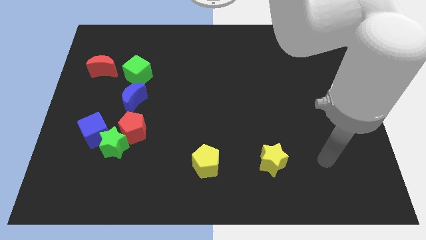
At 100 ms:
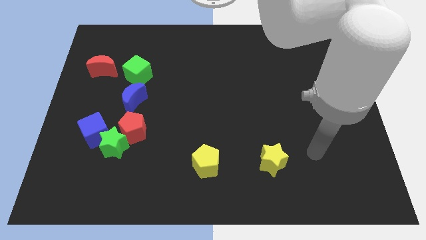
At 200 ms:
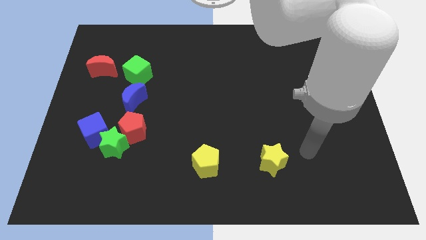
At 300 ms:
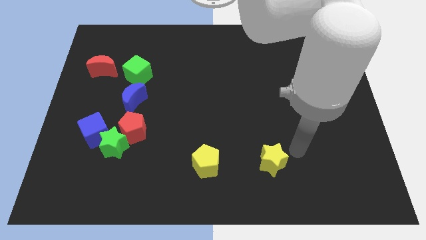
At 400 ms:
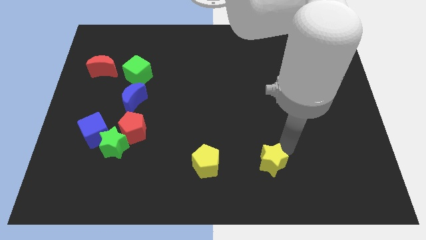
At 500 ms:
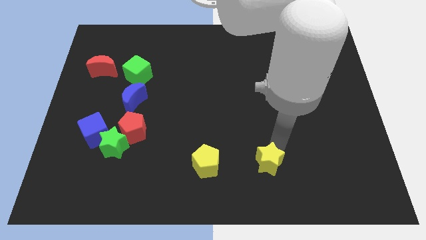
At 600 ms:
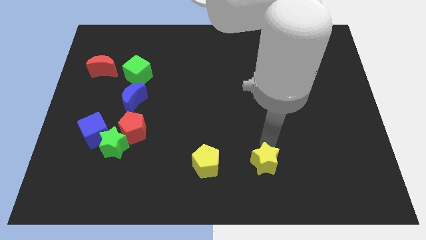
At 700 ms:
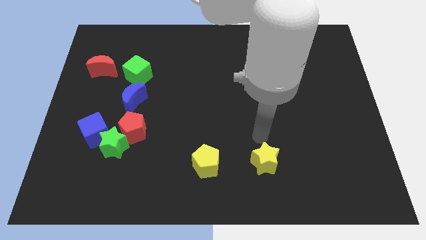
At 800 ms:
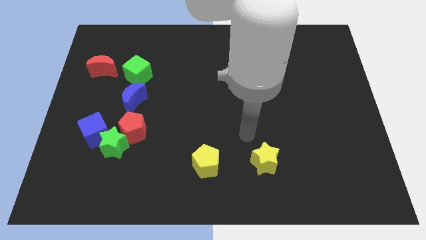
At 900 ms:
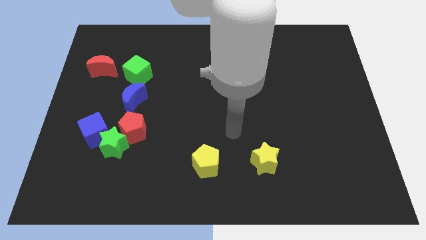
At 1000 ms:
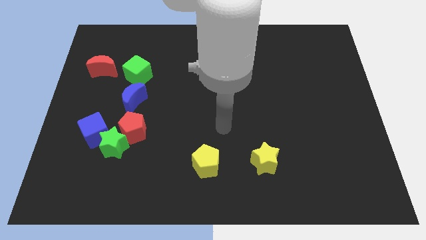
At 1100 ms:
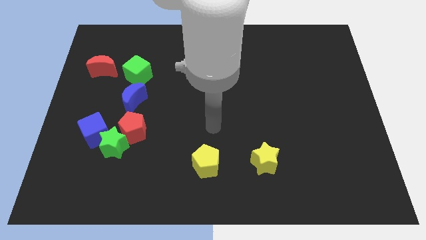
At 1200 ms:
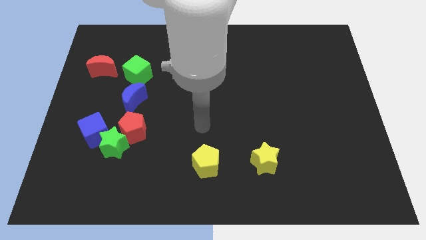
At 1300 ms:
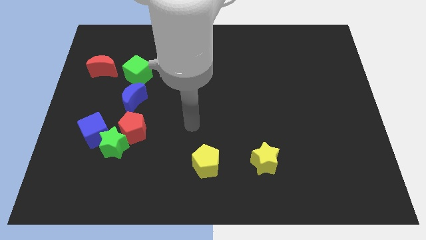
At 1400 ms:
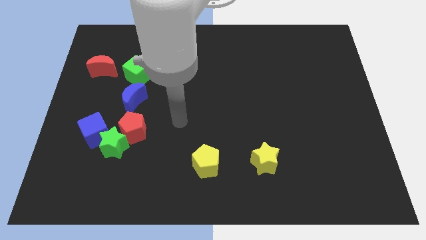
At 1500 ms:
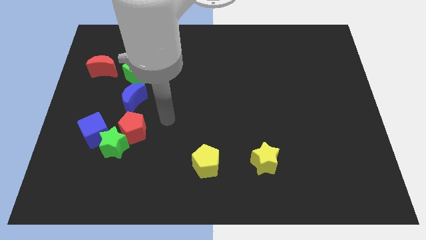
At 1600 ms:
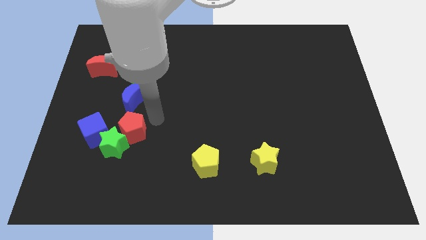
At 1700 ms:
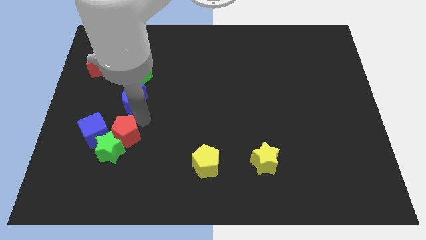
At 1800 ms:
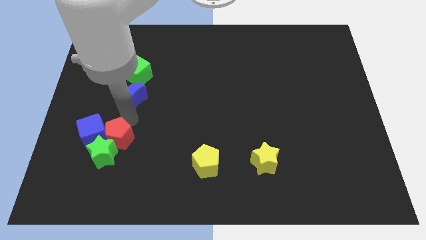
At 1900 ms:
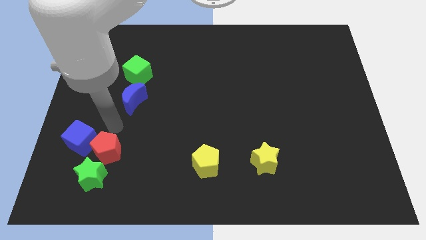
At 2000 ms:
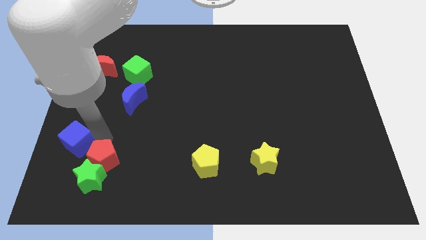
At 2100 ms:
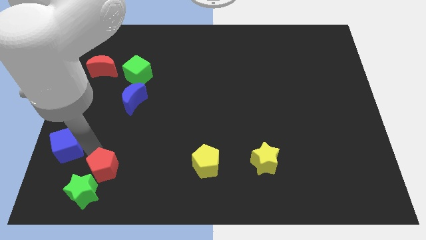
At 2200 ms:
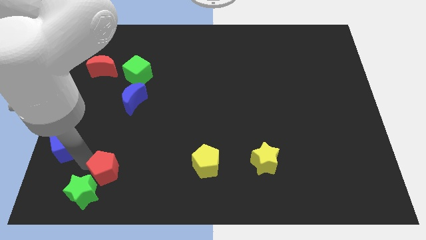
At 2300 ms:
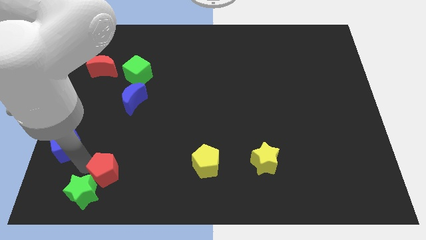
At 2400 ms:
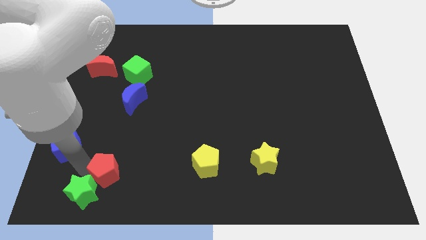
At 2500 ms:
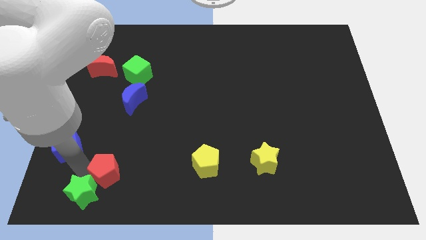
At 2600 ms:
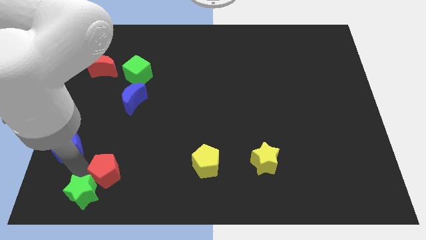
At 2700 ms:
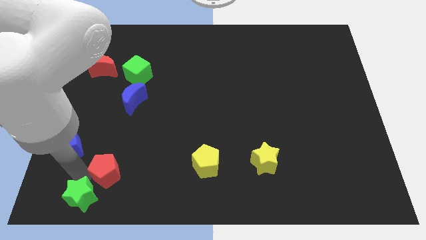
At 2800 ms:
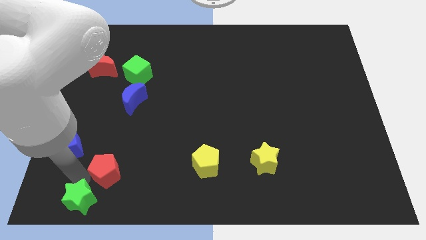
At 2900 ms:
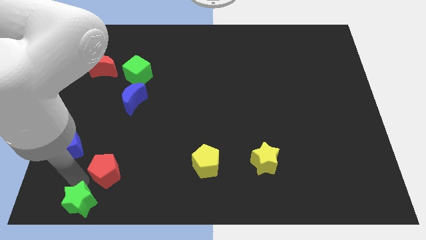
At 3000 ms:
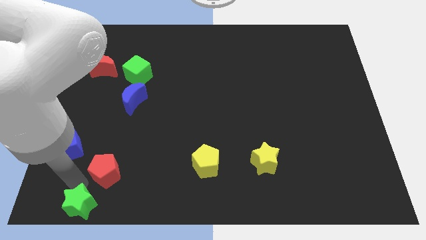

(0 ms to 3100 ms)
move the green star away from the red pentagon and blue cube

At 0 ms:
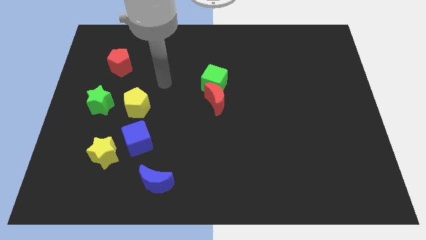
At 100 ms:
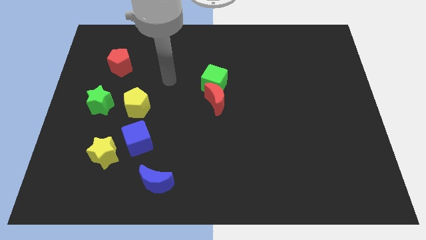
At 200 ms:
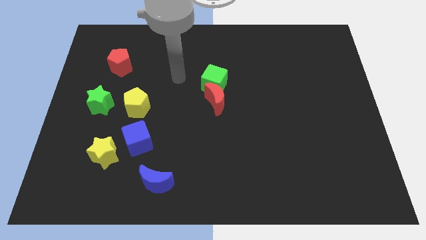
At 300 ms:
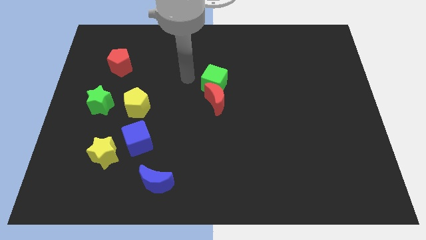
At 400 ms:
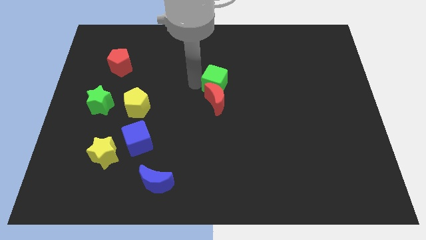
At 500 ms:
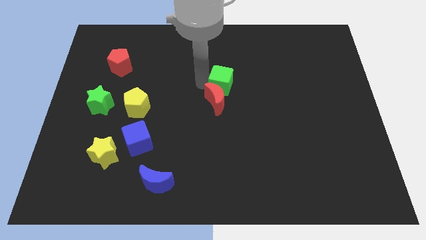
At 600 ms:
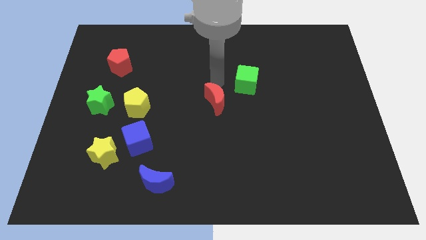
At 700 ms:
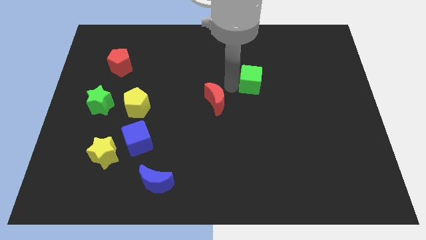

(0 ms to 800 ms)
pull the red moon apart from the green cube

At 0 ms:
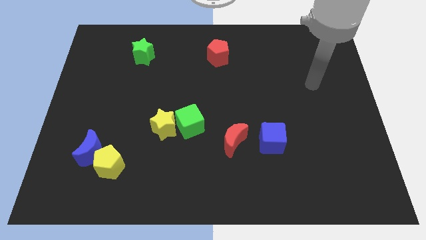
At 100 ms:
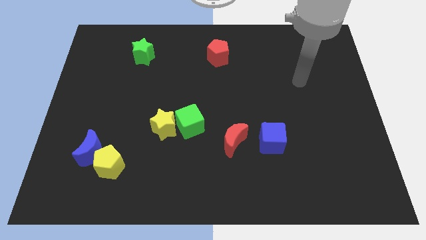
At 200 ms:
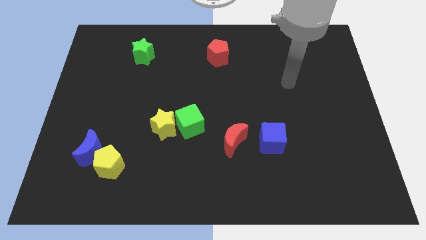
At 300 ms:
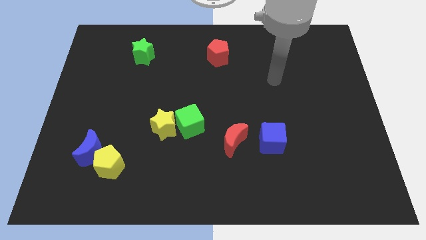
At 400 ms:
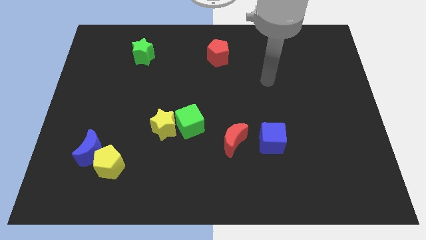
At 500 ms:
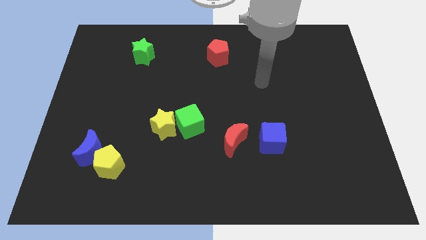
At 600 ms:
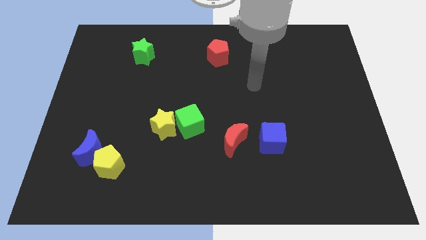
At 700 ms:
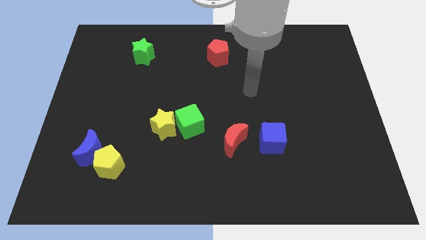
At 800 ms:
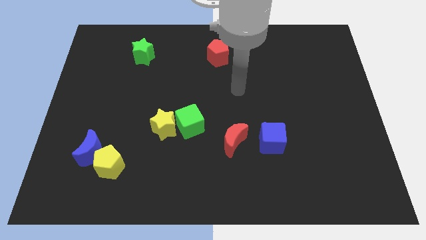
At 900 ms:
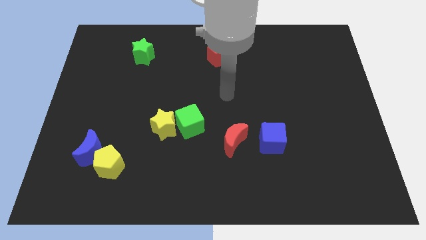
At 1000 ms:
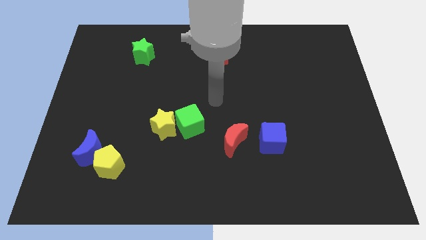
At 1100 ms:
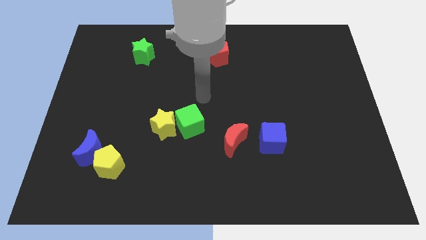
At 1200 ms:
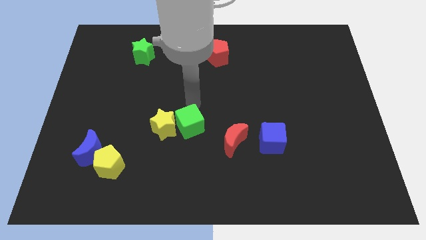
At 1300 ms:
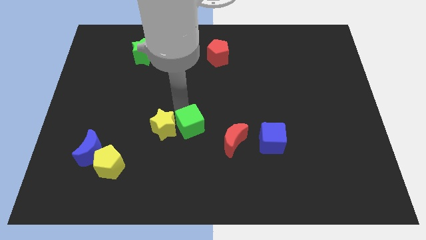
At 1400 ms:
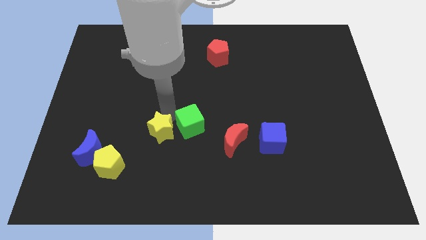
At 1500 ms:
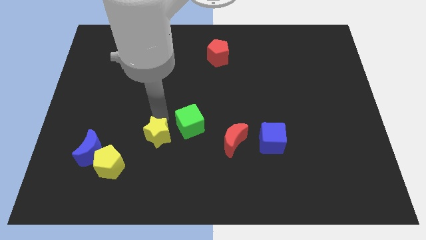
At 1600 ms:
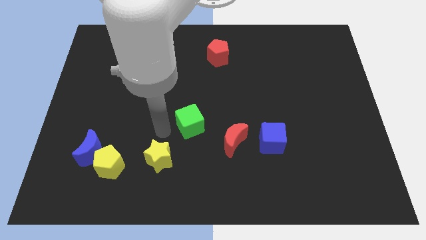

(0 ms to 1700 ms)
separate the green cube from the yellow star

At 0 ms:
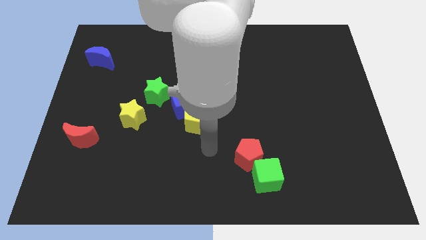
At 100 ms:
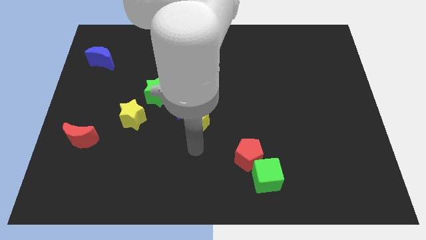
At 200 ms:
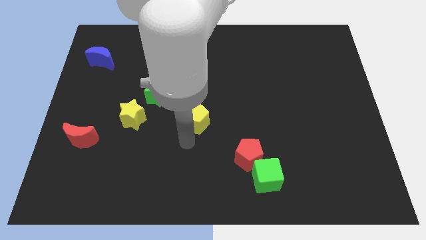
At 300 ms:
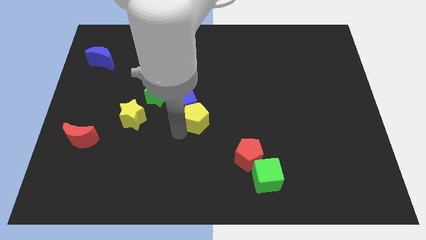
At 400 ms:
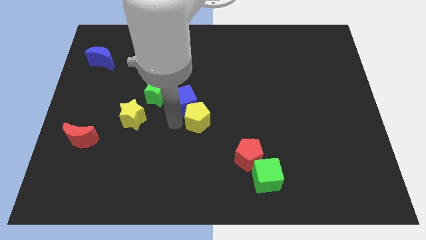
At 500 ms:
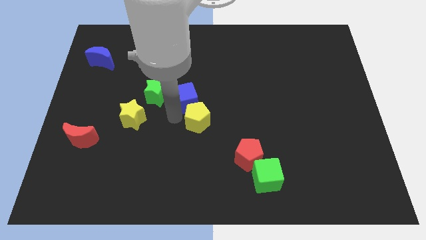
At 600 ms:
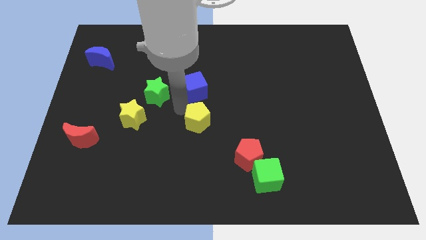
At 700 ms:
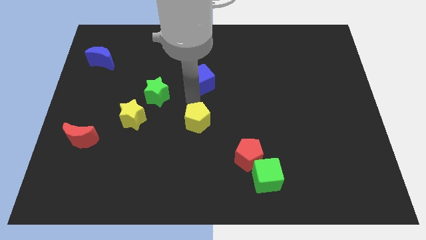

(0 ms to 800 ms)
move the yellow pentagon away from the blue cube

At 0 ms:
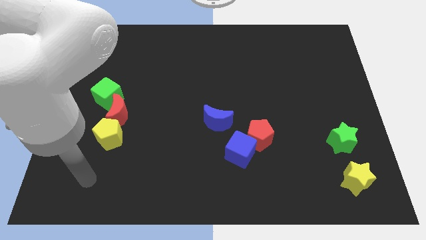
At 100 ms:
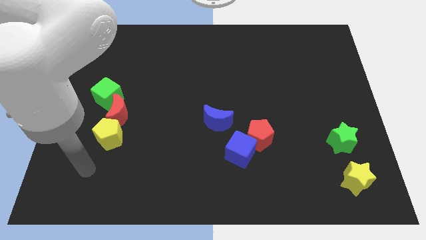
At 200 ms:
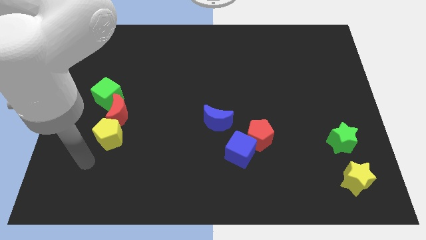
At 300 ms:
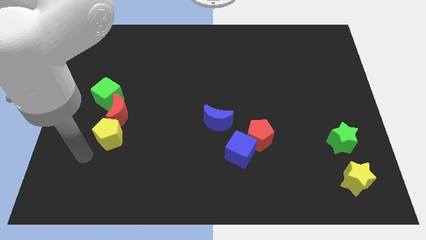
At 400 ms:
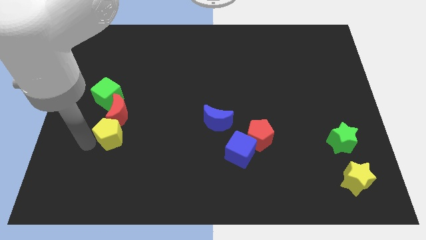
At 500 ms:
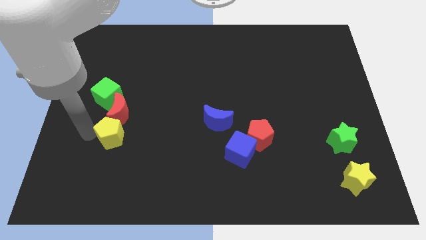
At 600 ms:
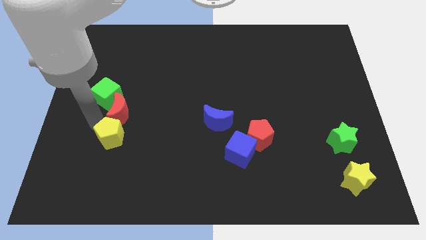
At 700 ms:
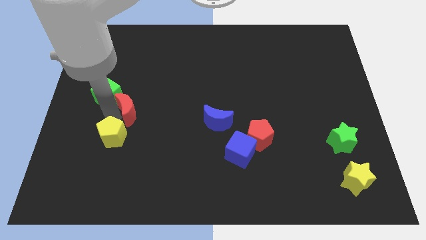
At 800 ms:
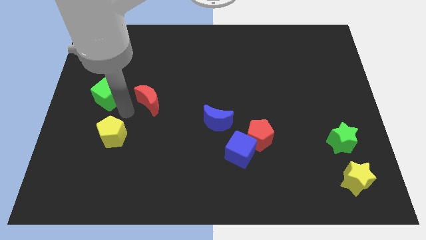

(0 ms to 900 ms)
move the green cube away from the red moon

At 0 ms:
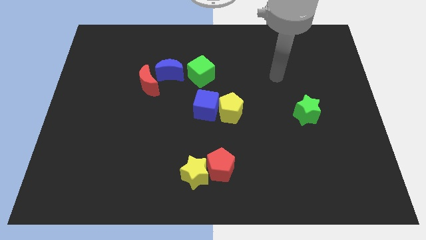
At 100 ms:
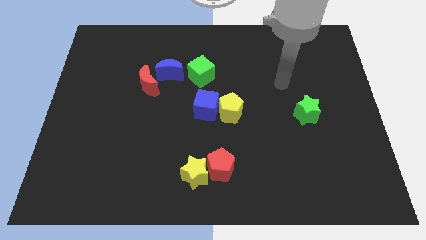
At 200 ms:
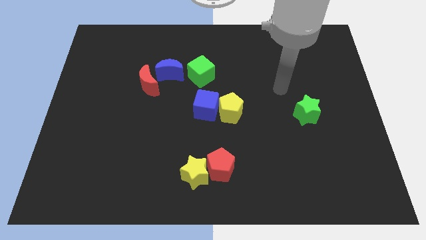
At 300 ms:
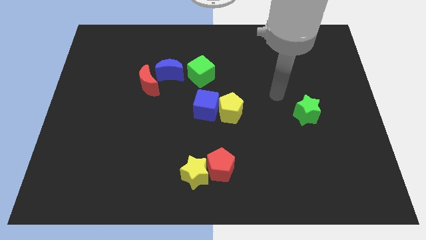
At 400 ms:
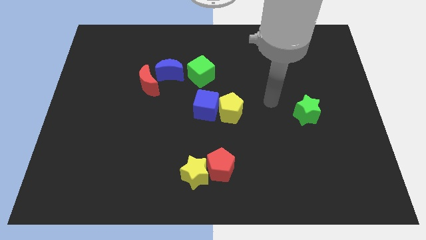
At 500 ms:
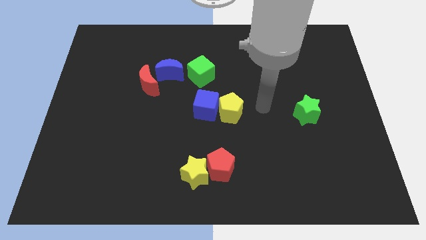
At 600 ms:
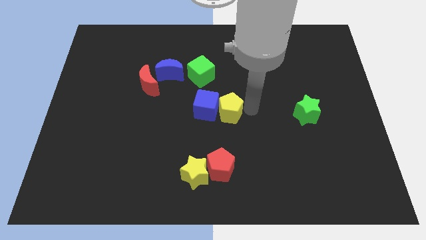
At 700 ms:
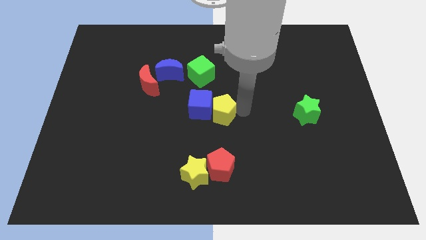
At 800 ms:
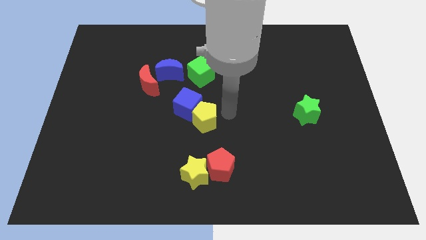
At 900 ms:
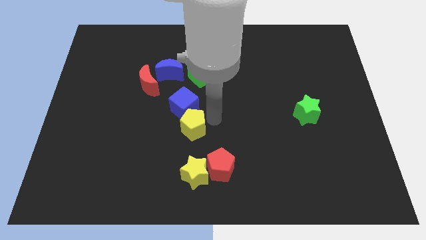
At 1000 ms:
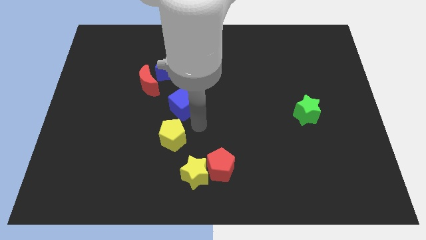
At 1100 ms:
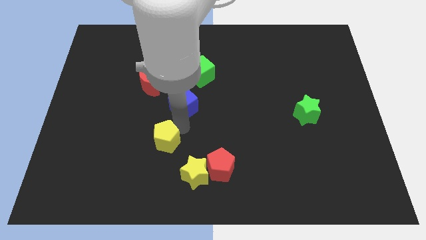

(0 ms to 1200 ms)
move the blue cube away from the yellow pentagon

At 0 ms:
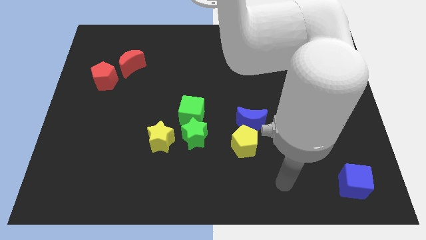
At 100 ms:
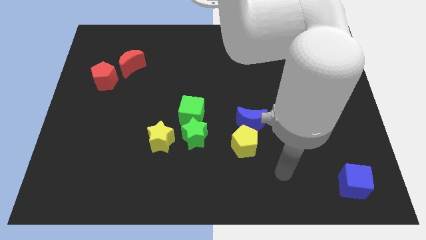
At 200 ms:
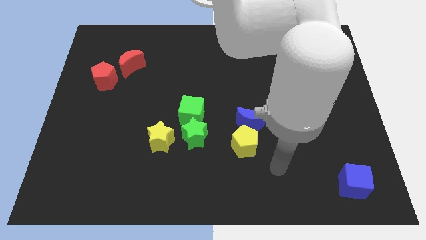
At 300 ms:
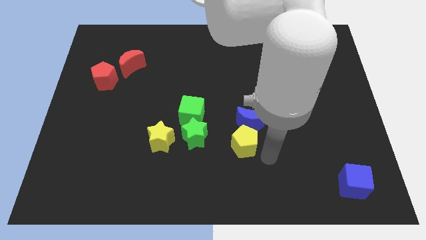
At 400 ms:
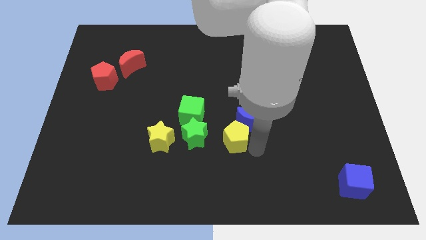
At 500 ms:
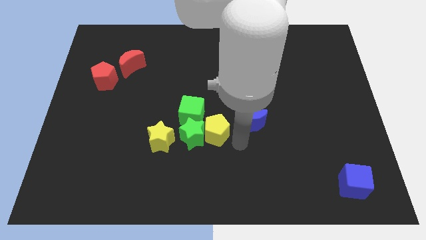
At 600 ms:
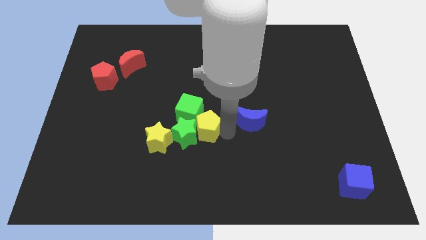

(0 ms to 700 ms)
pull the blue moon apart from the yellow pentagon

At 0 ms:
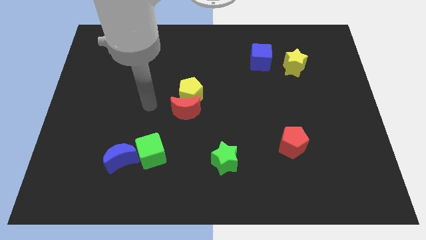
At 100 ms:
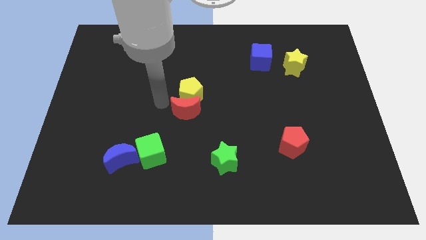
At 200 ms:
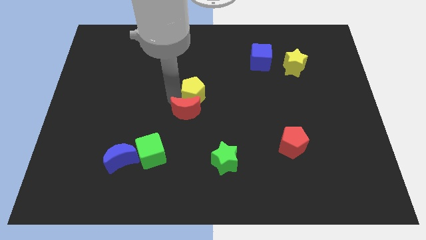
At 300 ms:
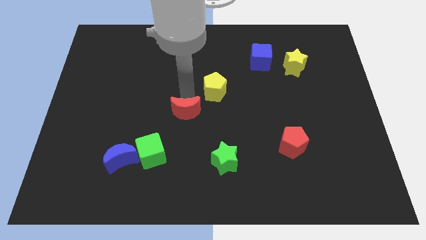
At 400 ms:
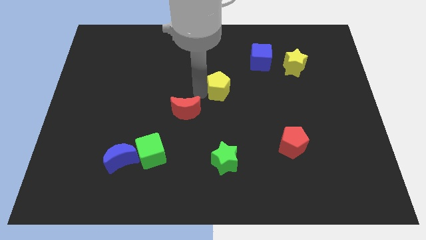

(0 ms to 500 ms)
separate the red moon from the yellow pentagon
